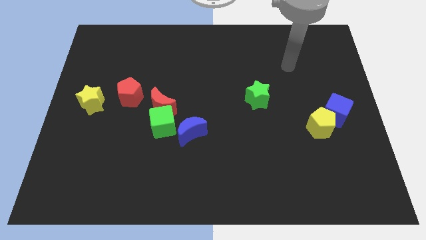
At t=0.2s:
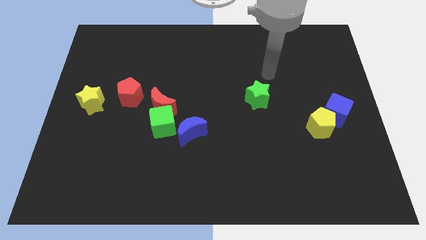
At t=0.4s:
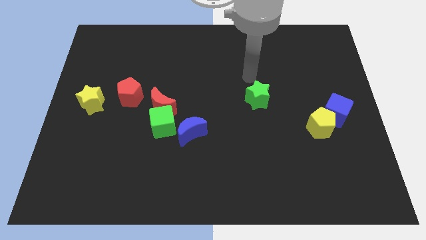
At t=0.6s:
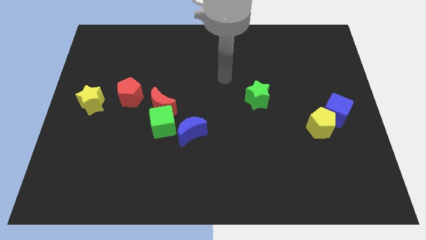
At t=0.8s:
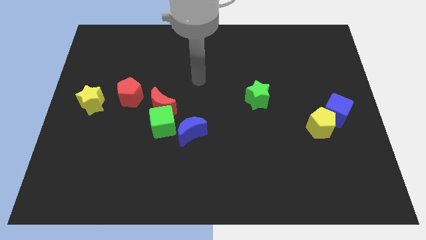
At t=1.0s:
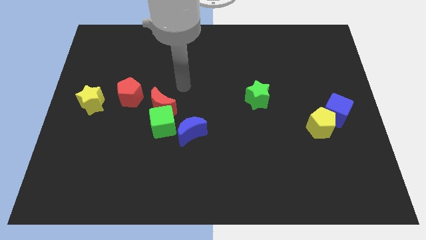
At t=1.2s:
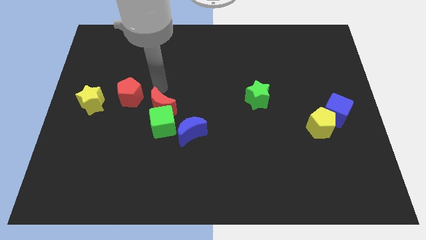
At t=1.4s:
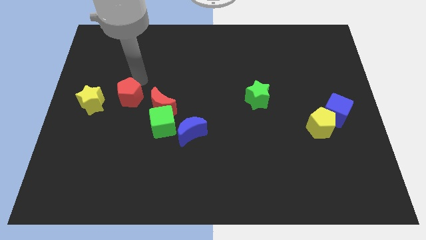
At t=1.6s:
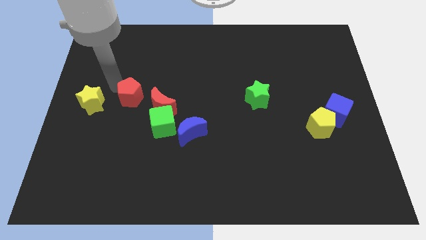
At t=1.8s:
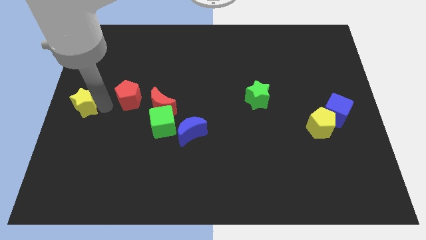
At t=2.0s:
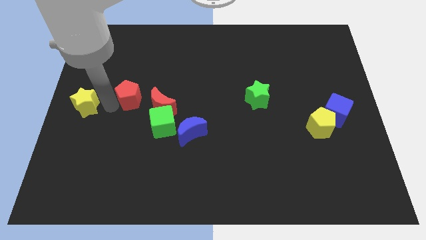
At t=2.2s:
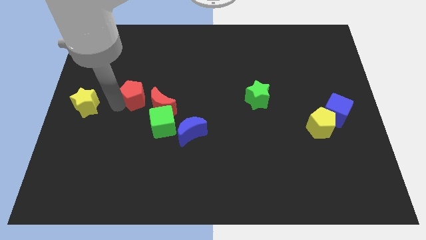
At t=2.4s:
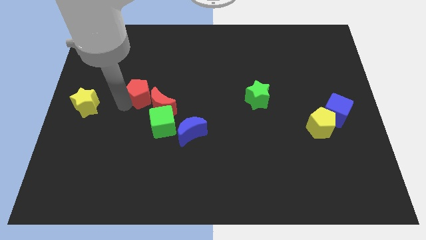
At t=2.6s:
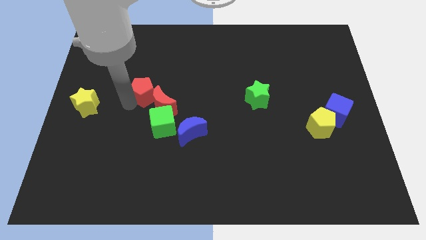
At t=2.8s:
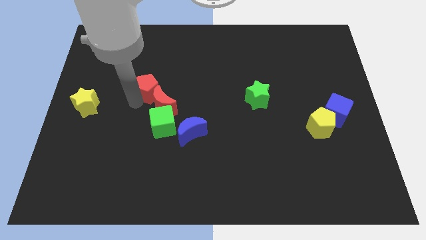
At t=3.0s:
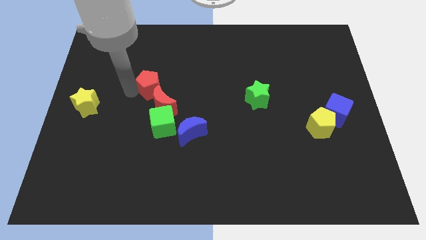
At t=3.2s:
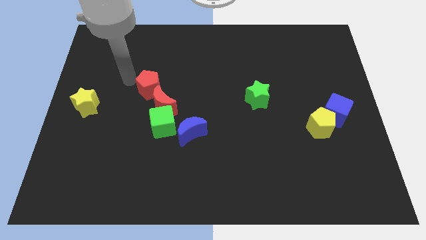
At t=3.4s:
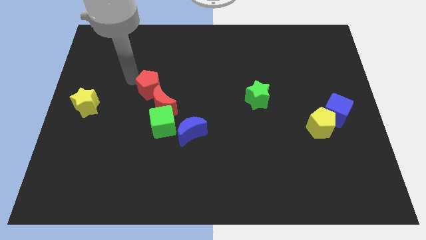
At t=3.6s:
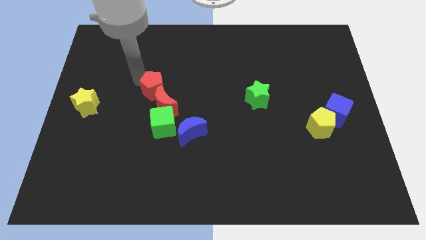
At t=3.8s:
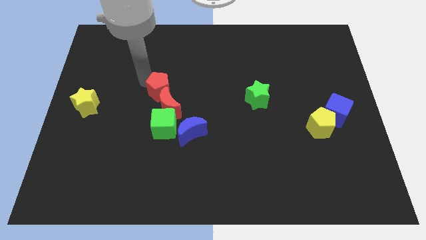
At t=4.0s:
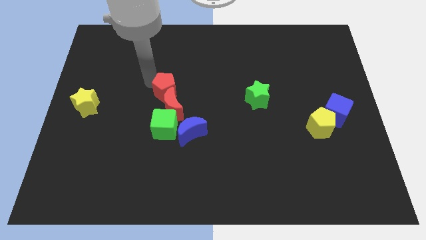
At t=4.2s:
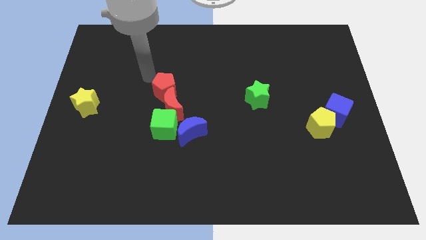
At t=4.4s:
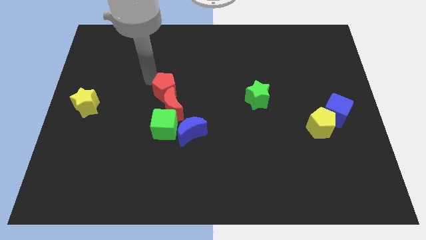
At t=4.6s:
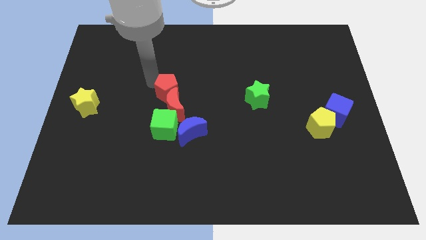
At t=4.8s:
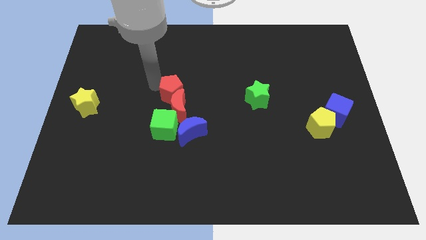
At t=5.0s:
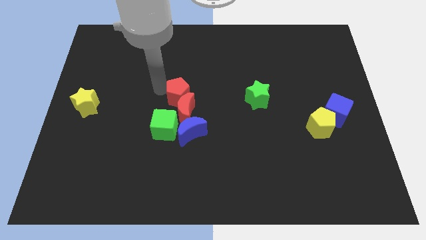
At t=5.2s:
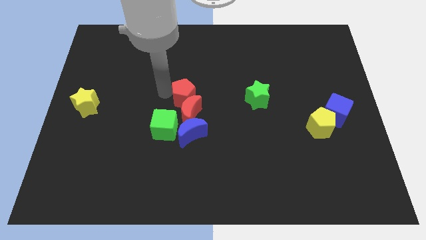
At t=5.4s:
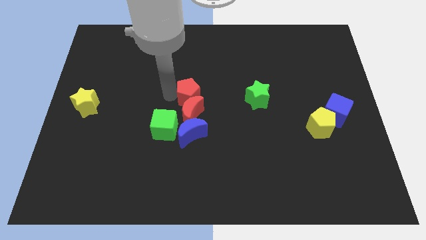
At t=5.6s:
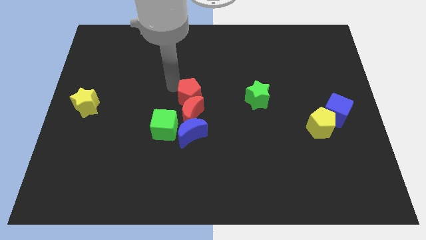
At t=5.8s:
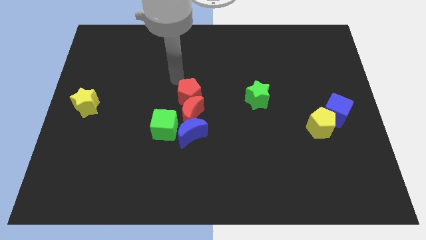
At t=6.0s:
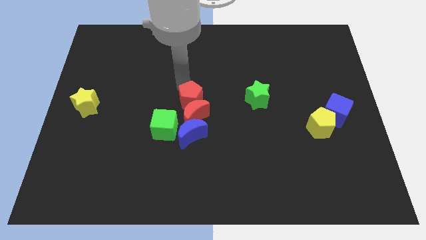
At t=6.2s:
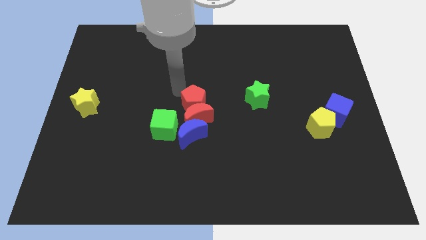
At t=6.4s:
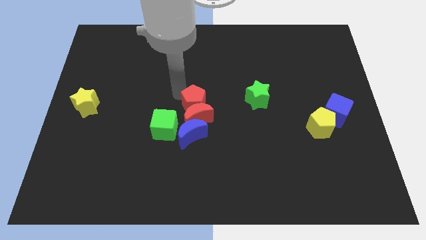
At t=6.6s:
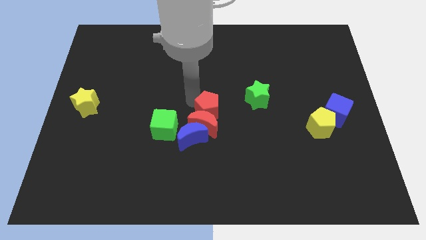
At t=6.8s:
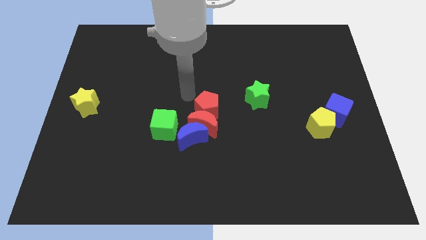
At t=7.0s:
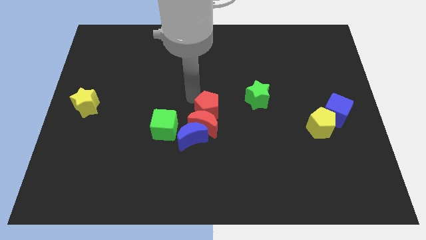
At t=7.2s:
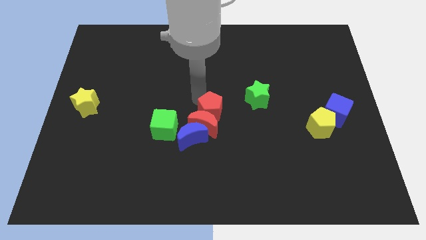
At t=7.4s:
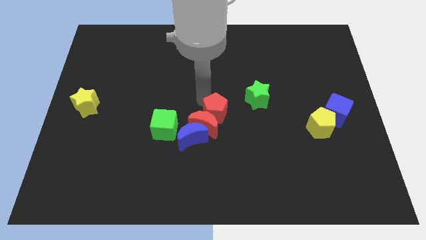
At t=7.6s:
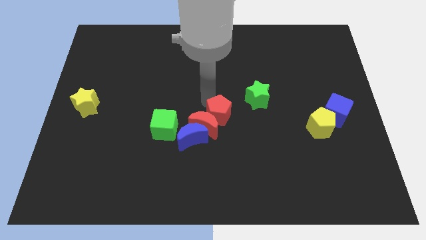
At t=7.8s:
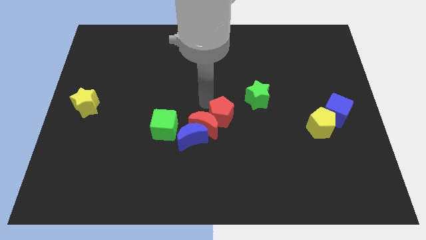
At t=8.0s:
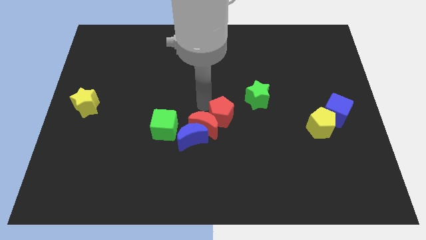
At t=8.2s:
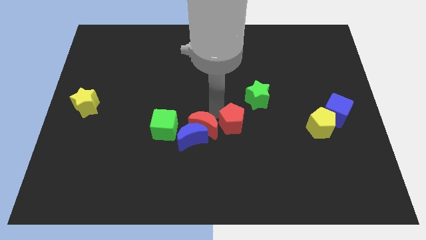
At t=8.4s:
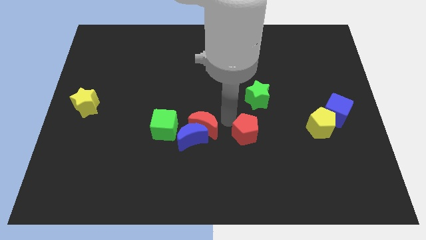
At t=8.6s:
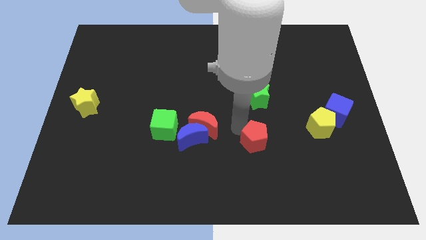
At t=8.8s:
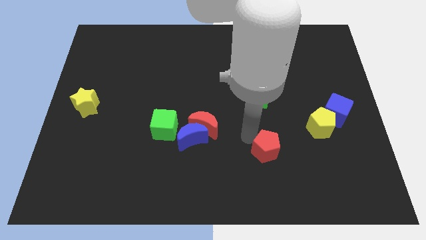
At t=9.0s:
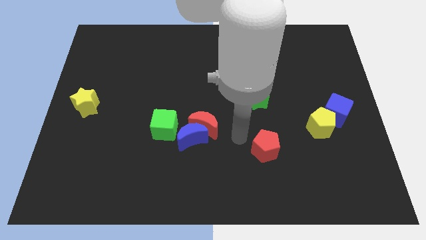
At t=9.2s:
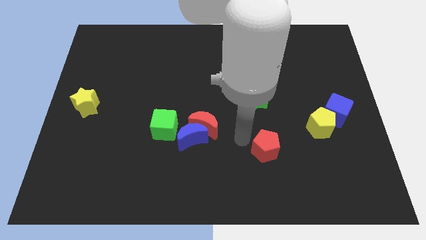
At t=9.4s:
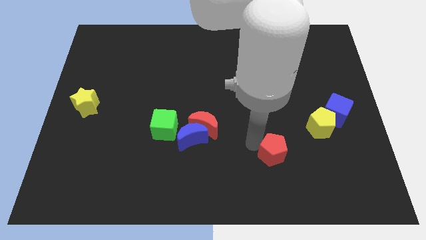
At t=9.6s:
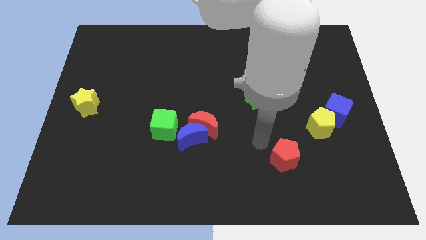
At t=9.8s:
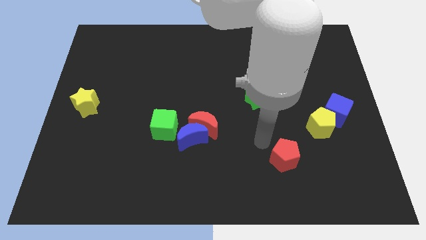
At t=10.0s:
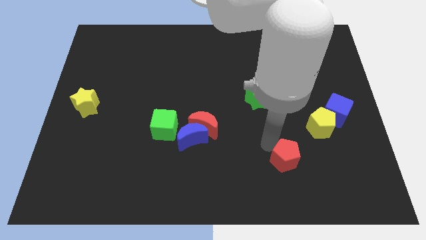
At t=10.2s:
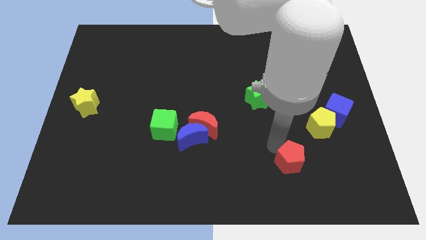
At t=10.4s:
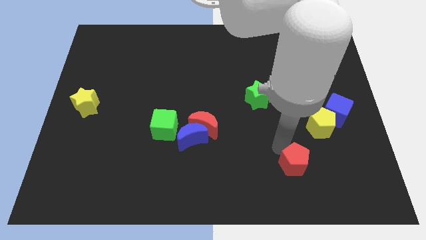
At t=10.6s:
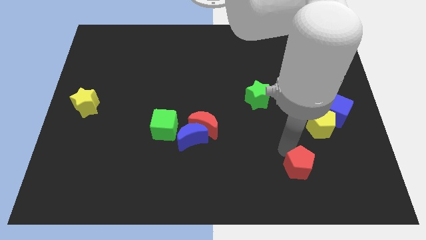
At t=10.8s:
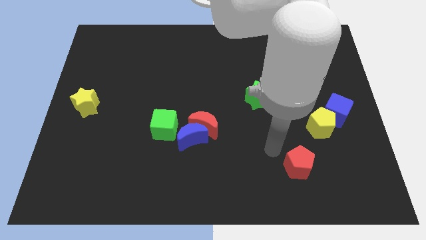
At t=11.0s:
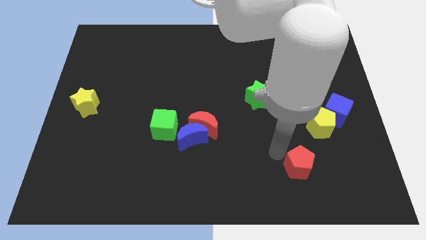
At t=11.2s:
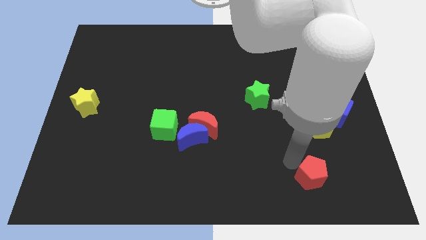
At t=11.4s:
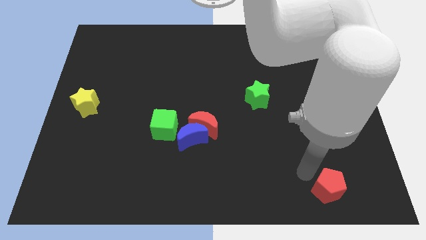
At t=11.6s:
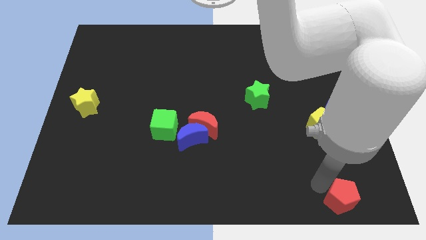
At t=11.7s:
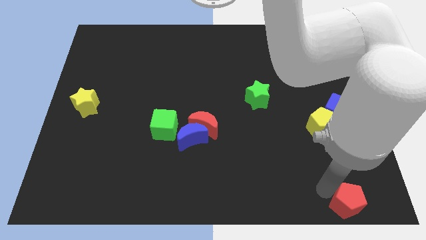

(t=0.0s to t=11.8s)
push the red pentagon to the lower right corner
